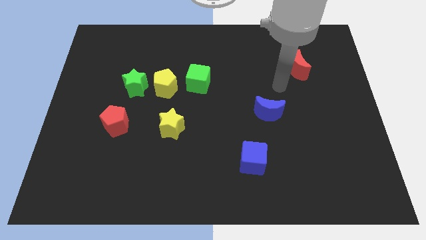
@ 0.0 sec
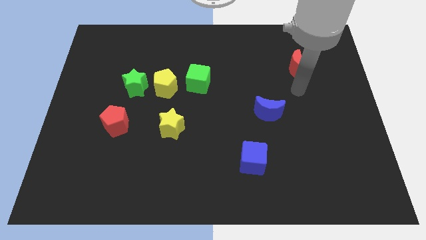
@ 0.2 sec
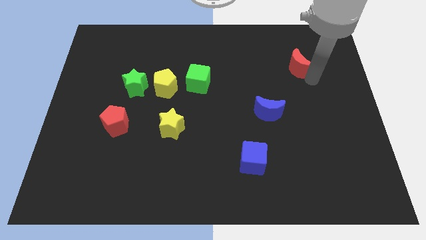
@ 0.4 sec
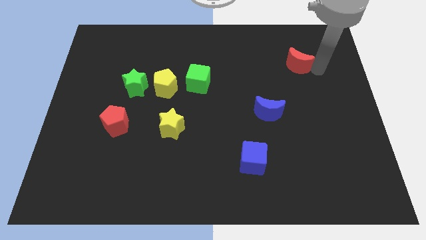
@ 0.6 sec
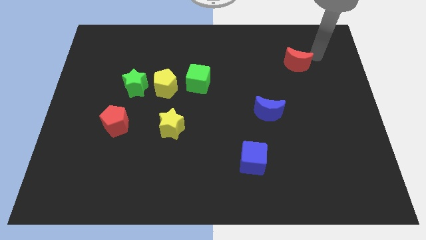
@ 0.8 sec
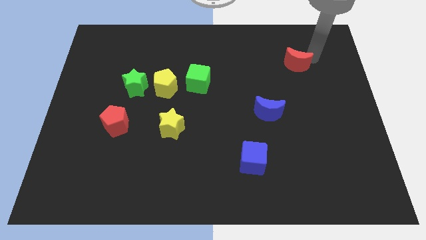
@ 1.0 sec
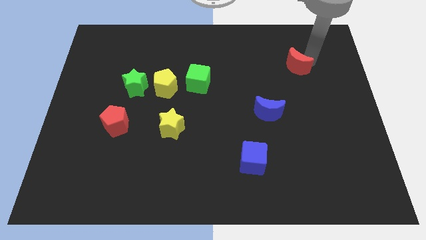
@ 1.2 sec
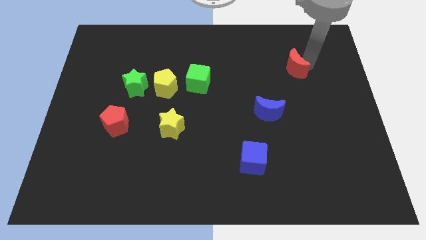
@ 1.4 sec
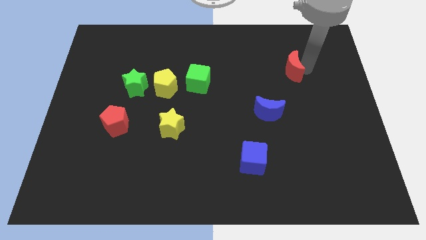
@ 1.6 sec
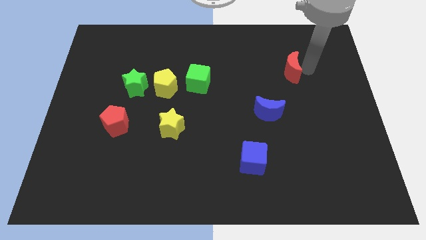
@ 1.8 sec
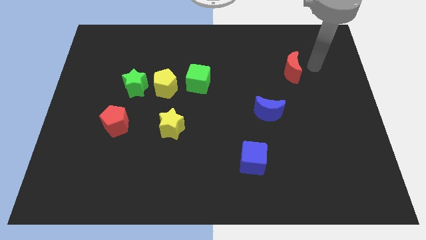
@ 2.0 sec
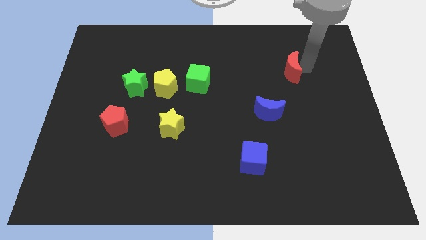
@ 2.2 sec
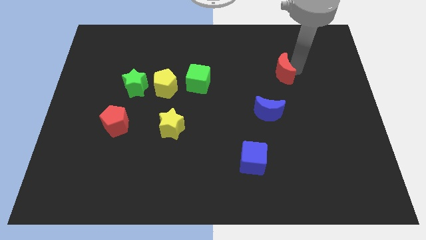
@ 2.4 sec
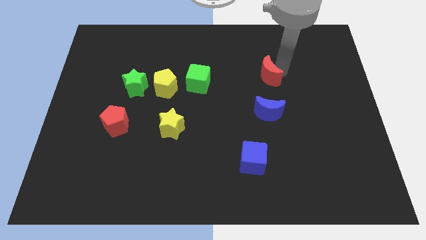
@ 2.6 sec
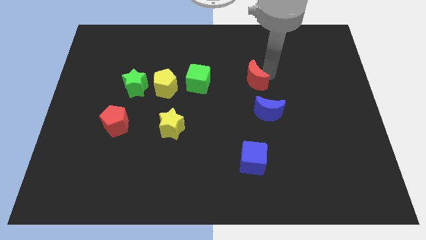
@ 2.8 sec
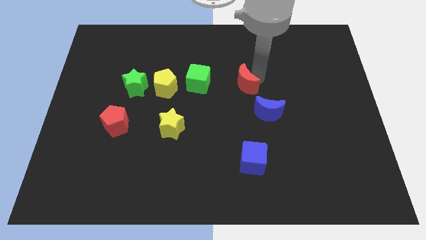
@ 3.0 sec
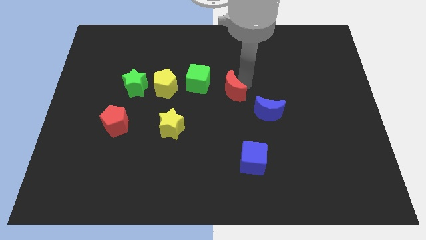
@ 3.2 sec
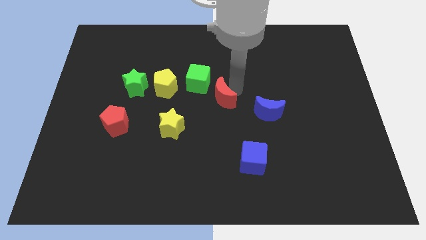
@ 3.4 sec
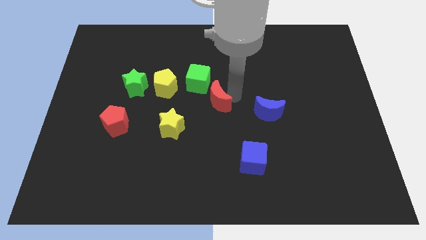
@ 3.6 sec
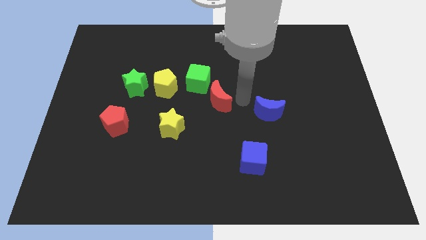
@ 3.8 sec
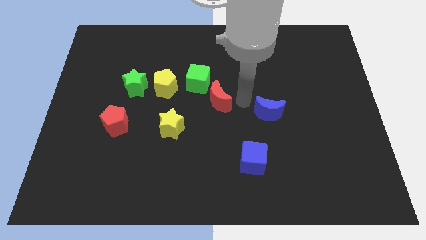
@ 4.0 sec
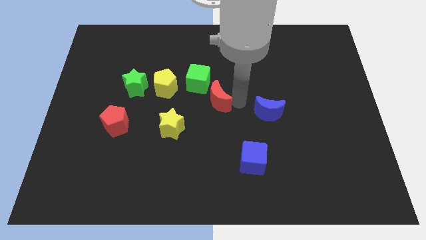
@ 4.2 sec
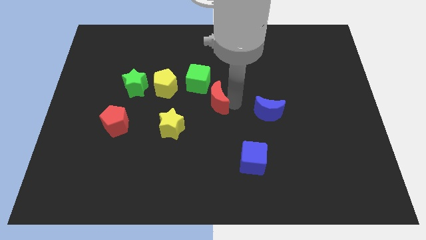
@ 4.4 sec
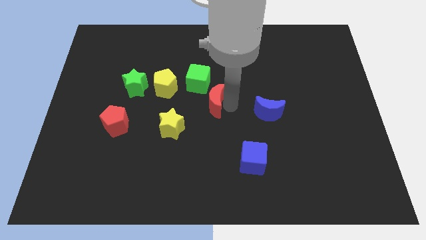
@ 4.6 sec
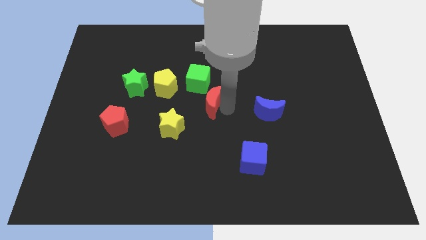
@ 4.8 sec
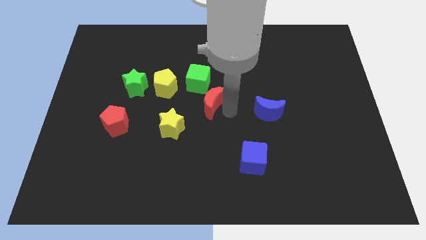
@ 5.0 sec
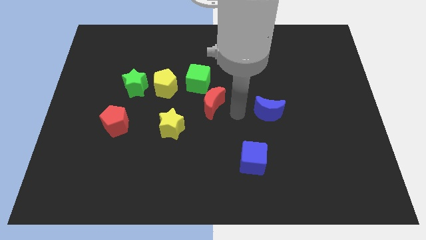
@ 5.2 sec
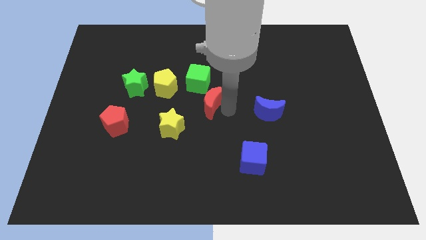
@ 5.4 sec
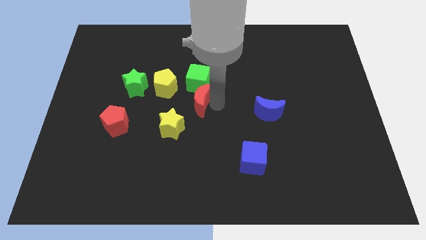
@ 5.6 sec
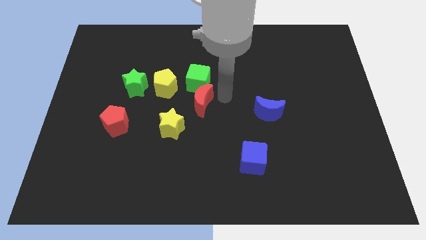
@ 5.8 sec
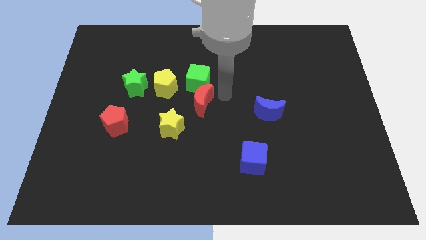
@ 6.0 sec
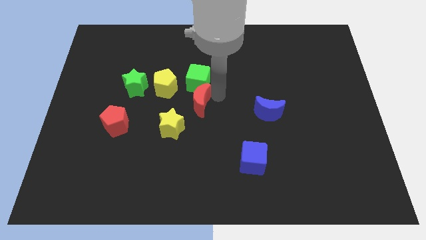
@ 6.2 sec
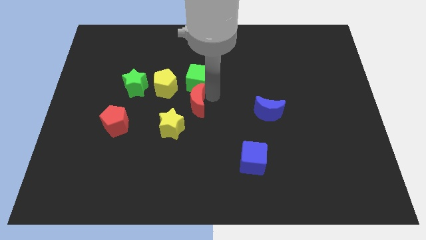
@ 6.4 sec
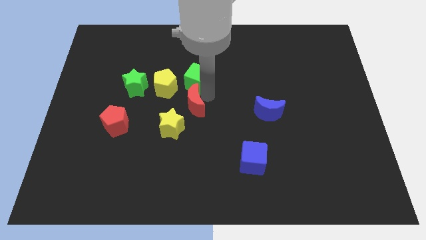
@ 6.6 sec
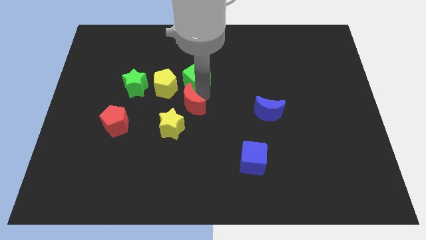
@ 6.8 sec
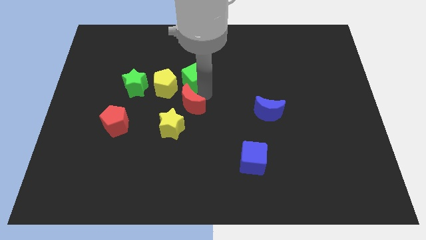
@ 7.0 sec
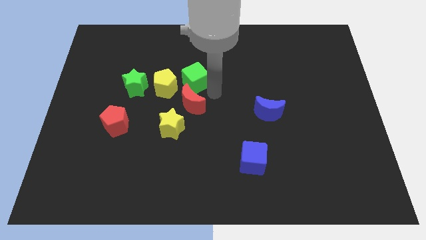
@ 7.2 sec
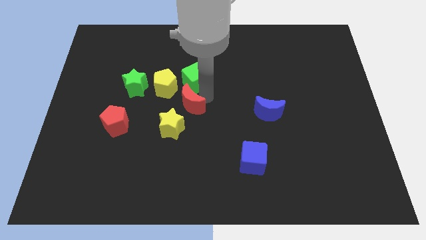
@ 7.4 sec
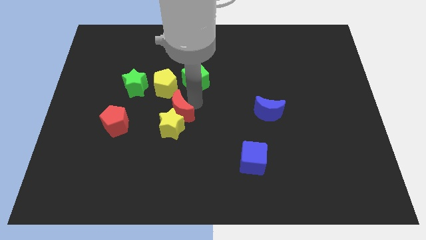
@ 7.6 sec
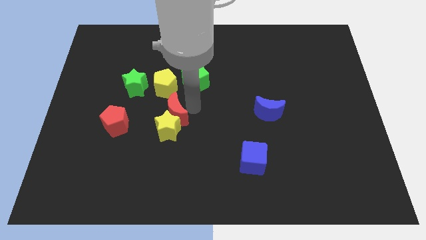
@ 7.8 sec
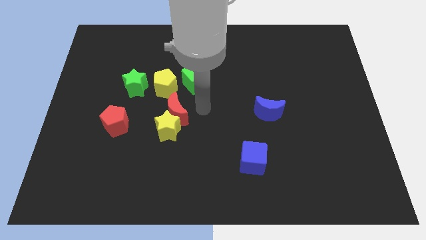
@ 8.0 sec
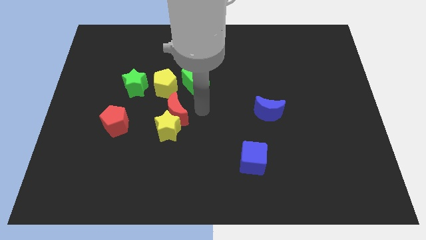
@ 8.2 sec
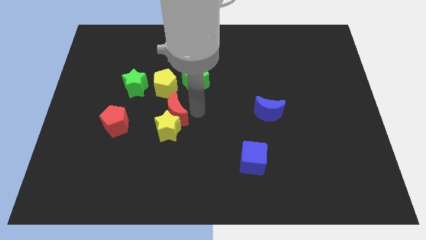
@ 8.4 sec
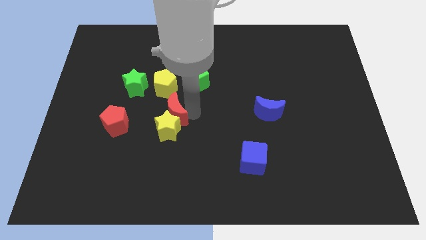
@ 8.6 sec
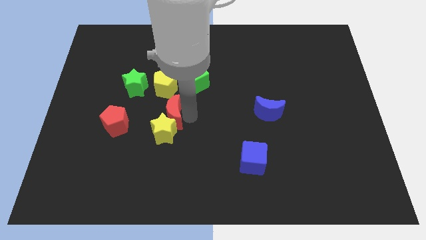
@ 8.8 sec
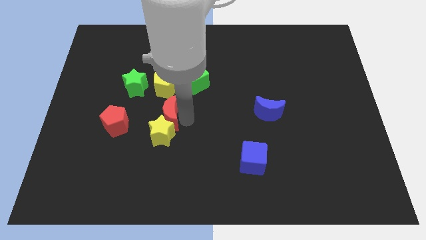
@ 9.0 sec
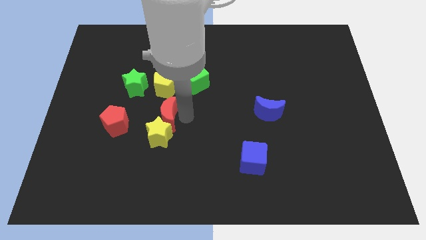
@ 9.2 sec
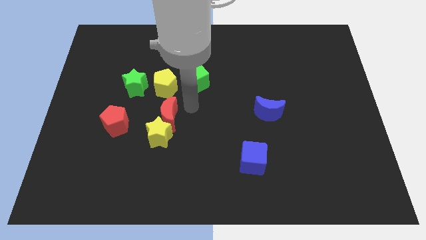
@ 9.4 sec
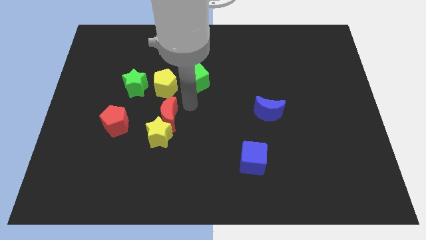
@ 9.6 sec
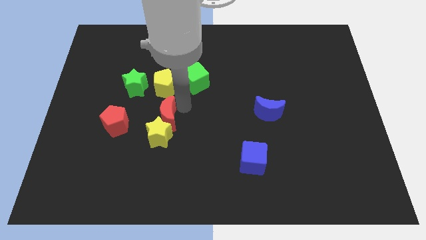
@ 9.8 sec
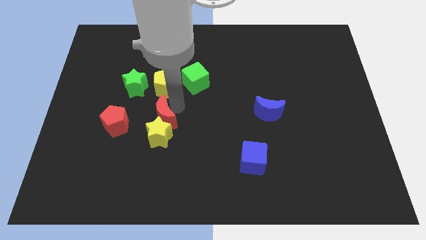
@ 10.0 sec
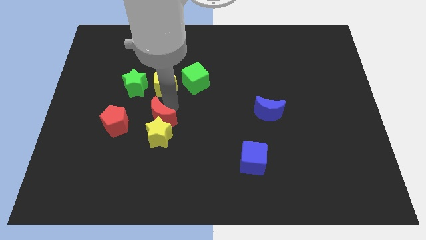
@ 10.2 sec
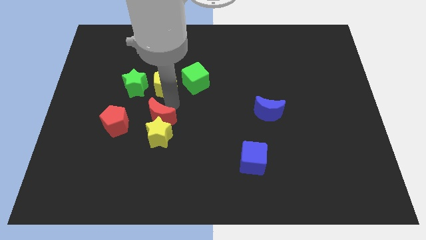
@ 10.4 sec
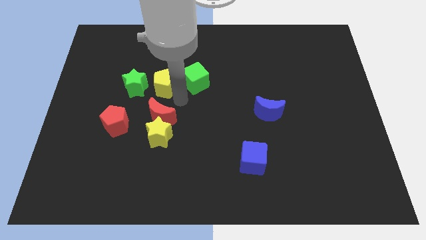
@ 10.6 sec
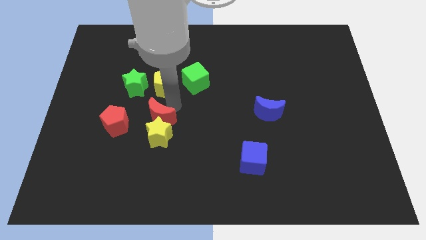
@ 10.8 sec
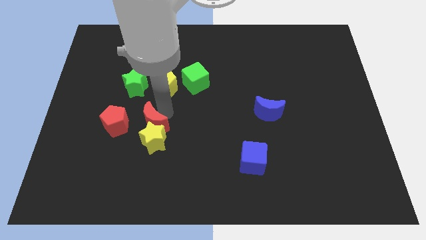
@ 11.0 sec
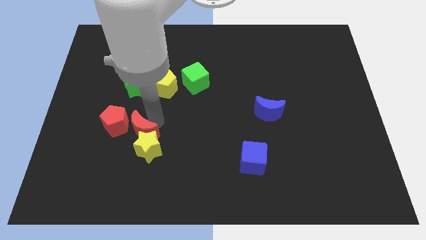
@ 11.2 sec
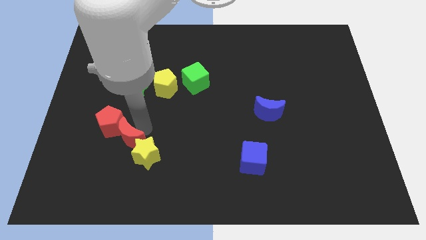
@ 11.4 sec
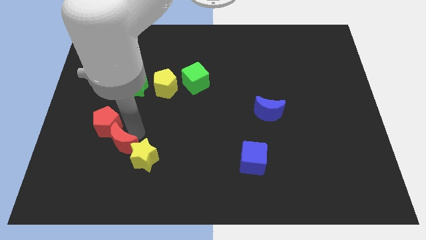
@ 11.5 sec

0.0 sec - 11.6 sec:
put the red moon to the bottom of the red pentagon

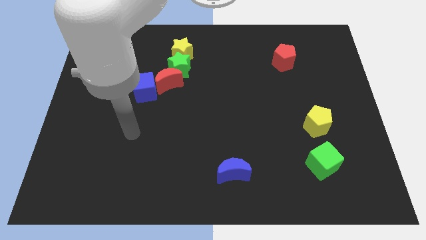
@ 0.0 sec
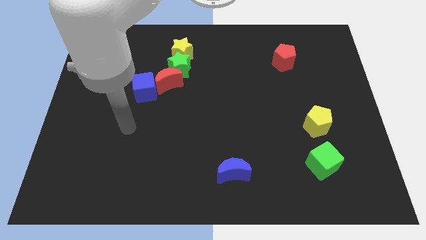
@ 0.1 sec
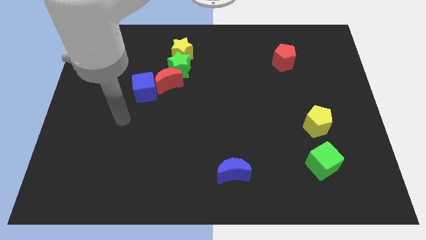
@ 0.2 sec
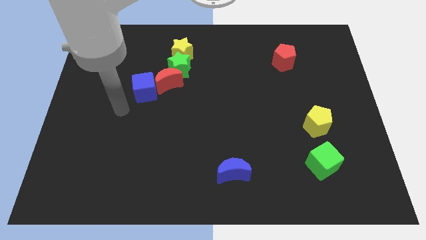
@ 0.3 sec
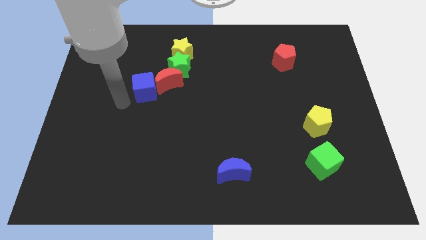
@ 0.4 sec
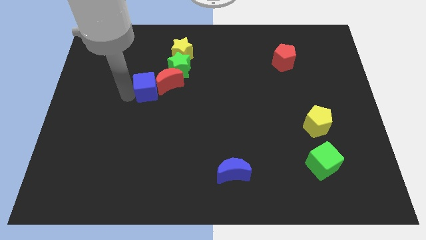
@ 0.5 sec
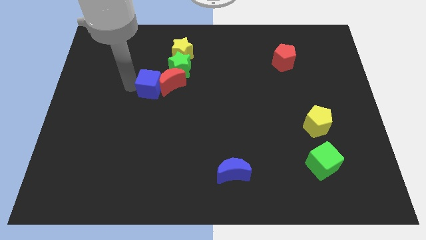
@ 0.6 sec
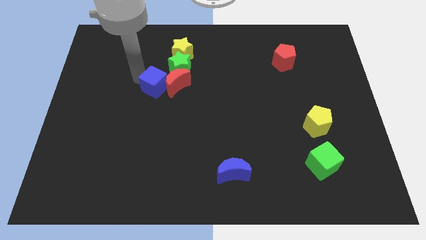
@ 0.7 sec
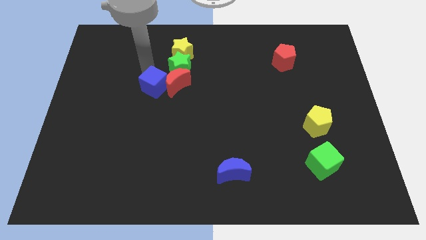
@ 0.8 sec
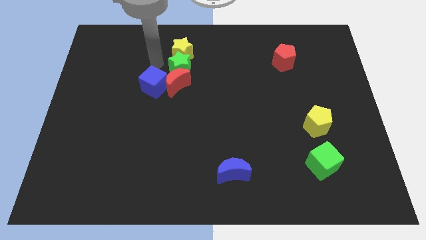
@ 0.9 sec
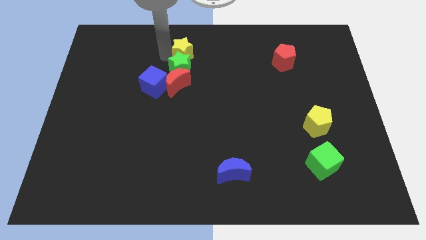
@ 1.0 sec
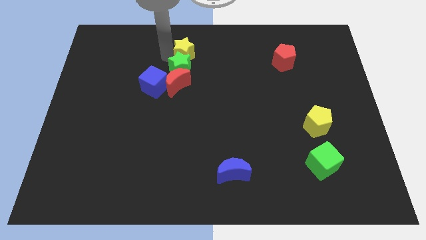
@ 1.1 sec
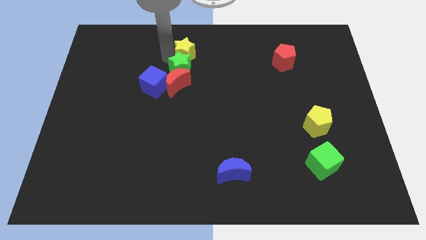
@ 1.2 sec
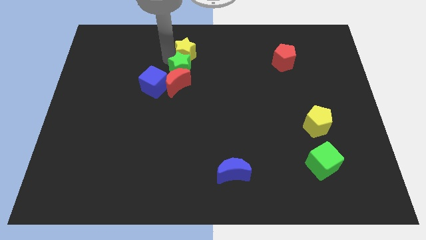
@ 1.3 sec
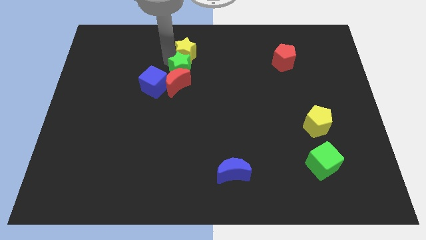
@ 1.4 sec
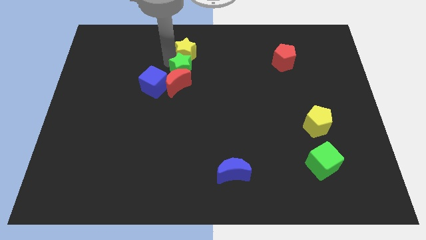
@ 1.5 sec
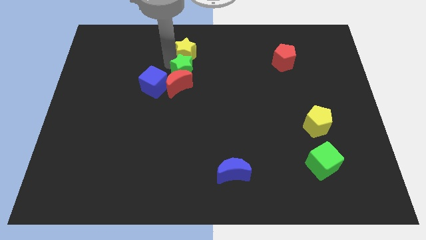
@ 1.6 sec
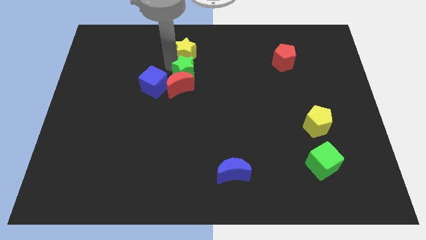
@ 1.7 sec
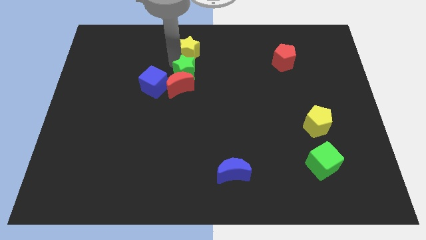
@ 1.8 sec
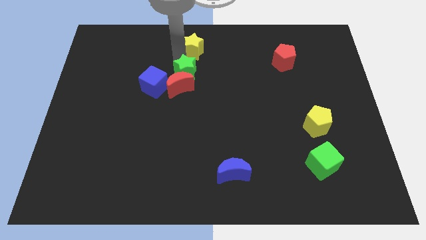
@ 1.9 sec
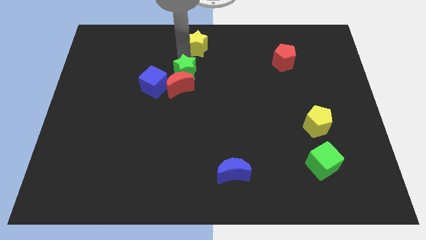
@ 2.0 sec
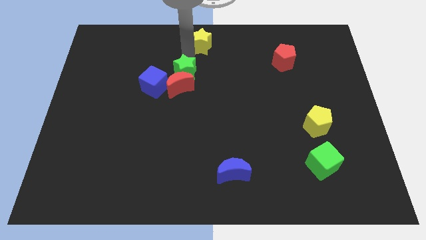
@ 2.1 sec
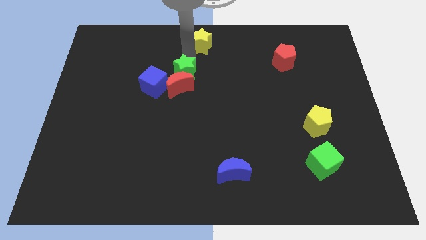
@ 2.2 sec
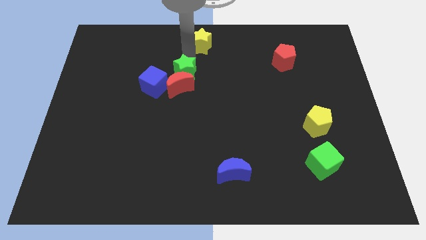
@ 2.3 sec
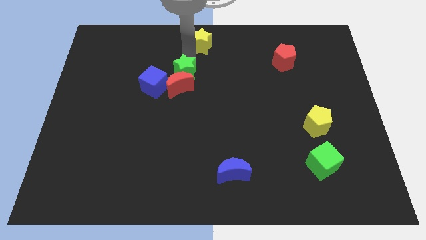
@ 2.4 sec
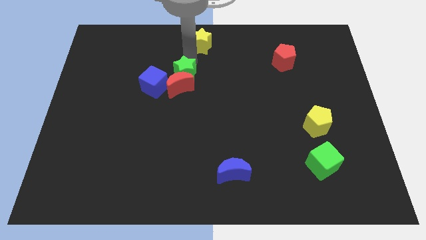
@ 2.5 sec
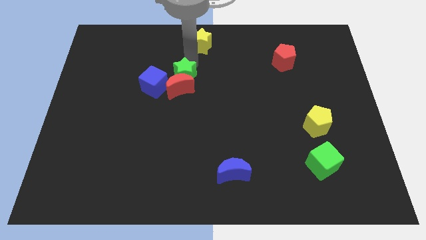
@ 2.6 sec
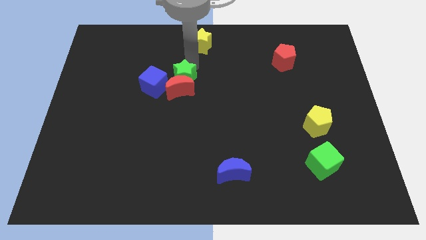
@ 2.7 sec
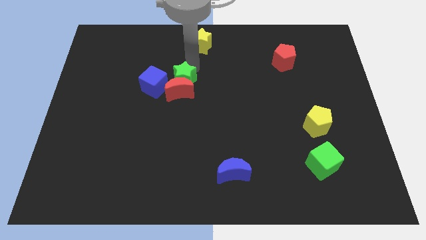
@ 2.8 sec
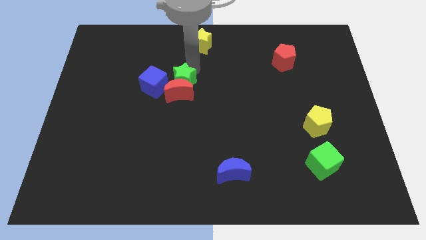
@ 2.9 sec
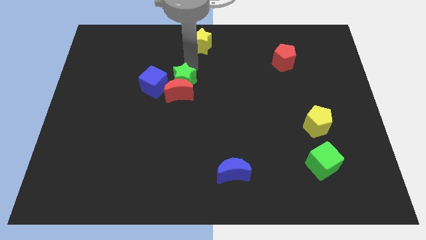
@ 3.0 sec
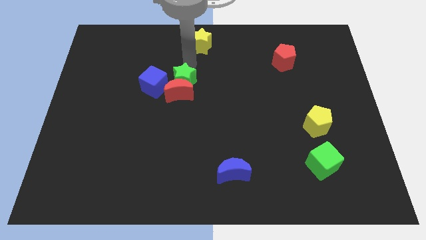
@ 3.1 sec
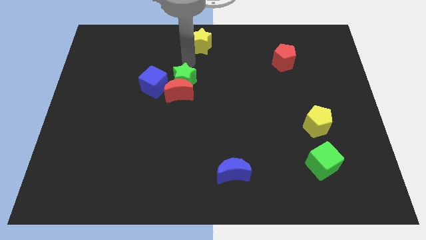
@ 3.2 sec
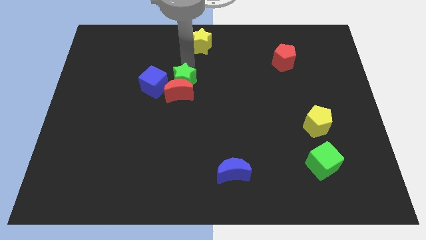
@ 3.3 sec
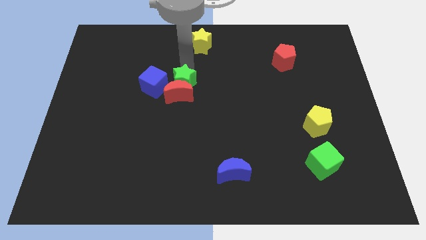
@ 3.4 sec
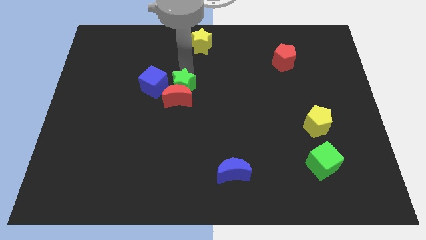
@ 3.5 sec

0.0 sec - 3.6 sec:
put the green star to the bottom right of the blue cube
